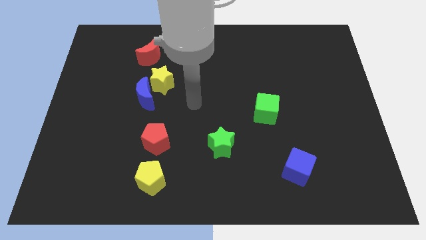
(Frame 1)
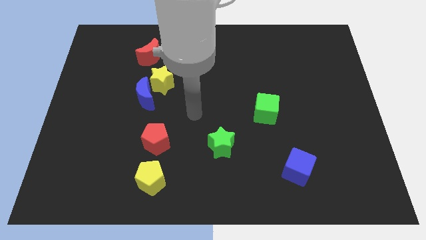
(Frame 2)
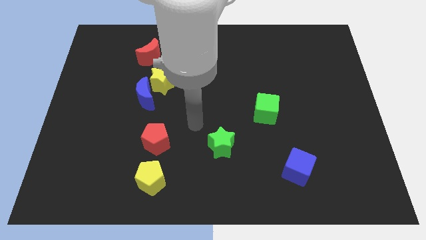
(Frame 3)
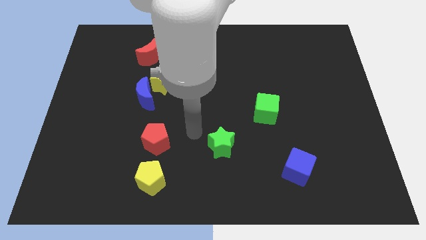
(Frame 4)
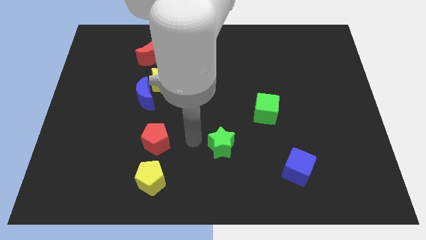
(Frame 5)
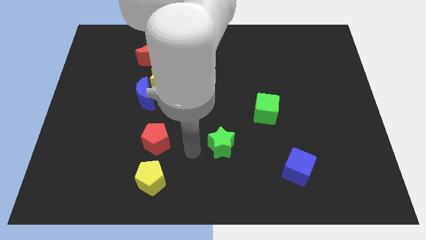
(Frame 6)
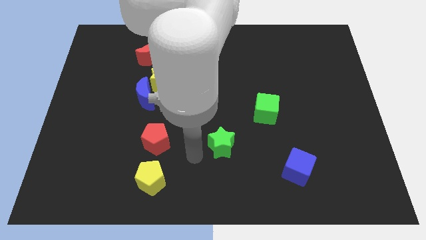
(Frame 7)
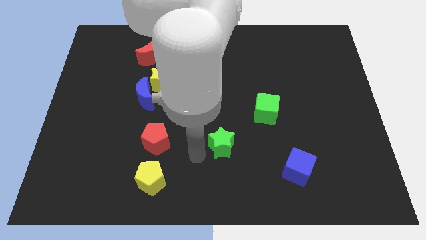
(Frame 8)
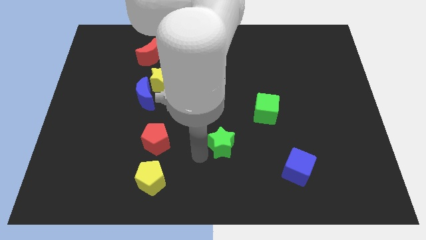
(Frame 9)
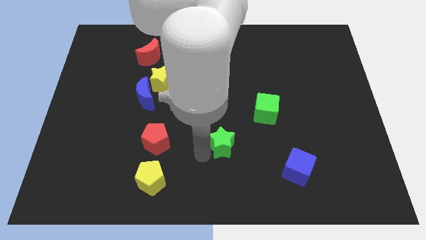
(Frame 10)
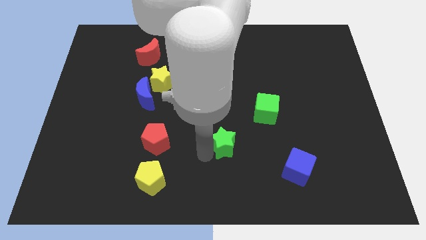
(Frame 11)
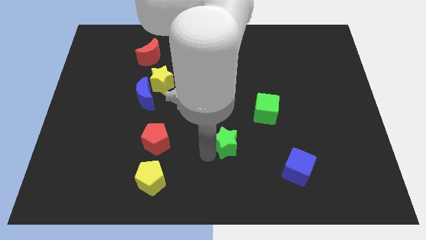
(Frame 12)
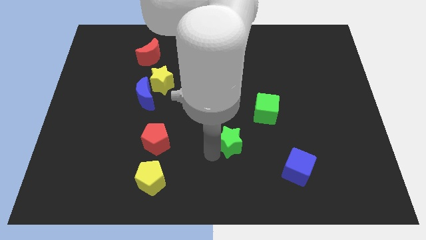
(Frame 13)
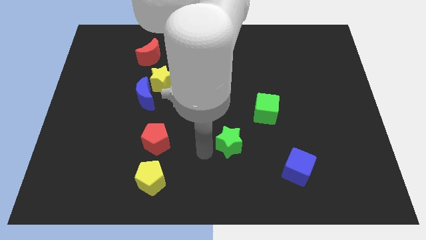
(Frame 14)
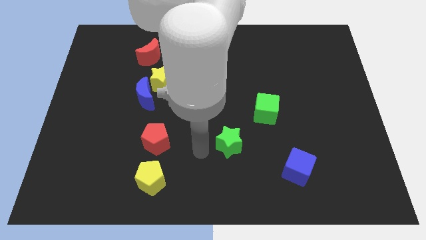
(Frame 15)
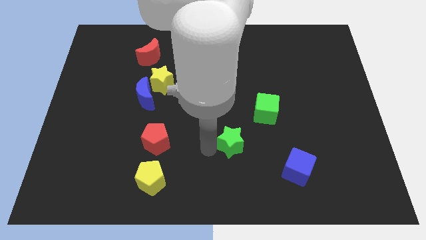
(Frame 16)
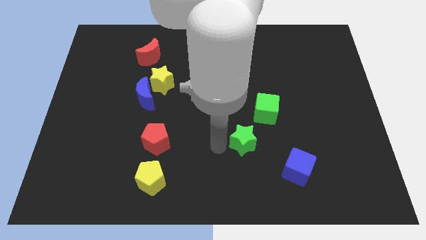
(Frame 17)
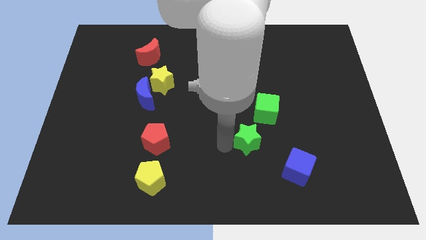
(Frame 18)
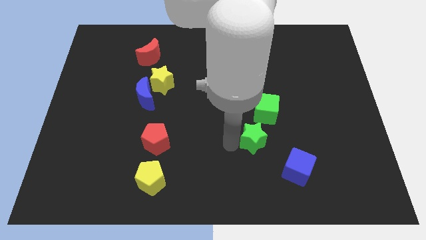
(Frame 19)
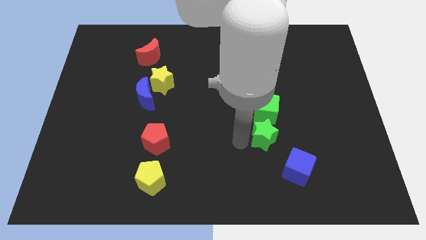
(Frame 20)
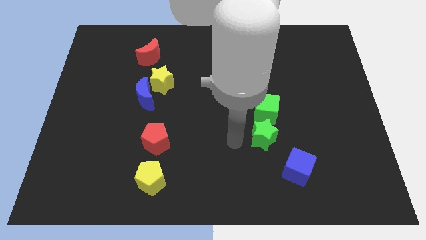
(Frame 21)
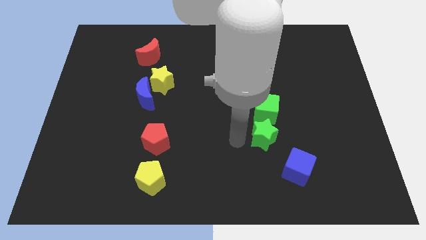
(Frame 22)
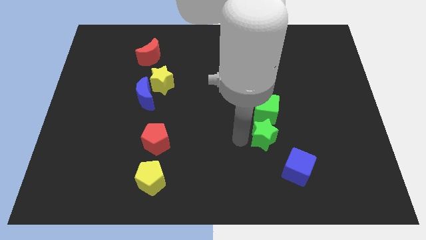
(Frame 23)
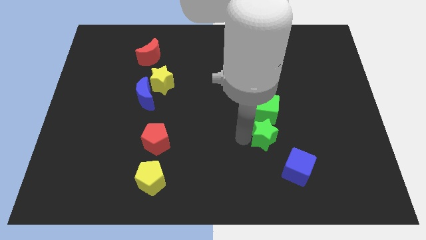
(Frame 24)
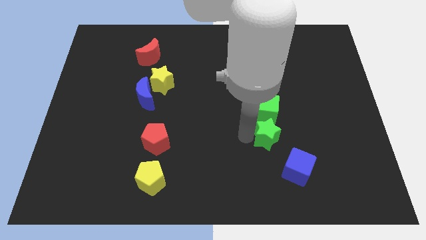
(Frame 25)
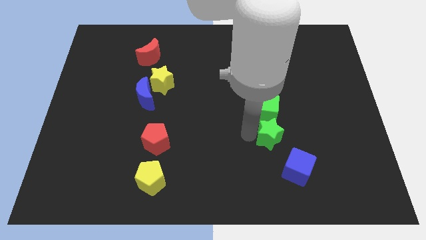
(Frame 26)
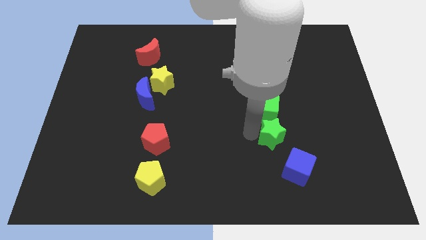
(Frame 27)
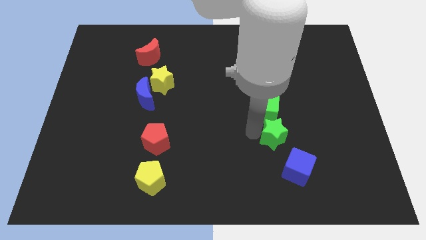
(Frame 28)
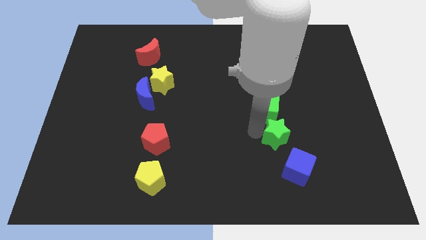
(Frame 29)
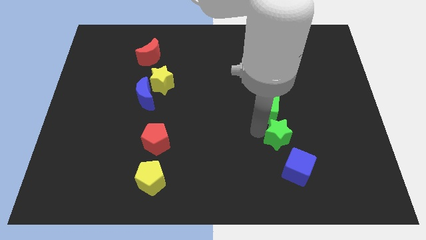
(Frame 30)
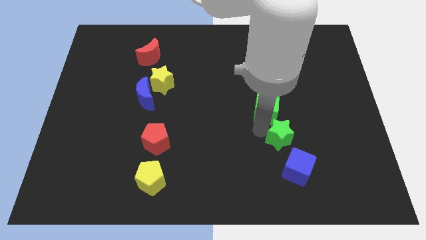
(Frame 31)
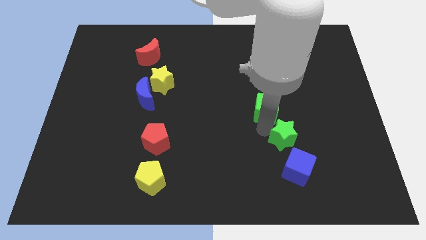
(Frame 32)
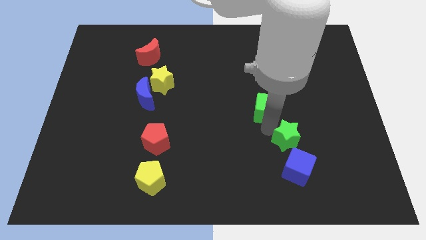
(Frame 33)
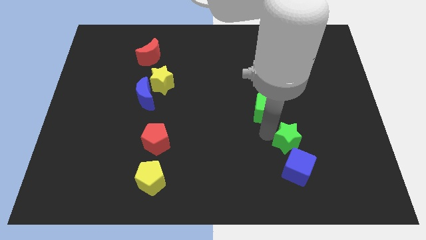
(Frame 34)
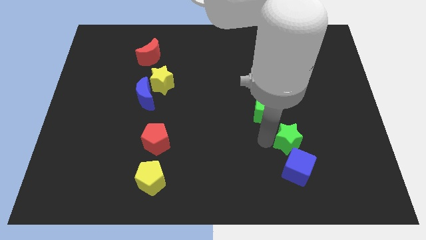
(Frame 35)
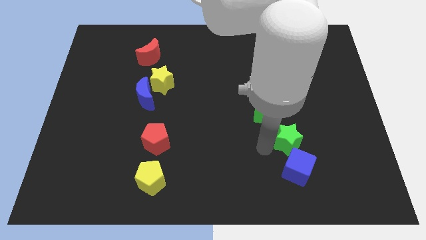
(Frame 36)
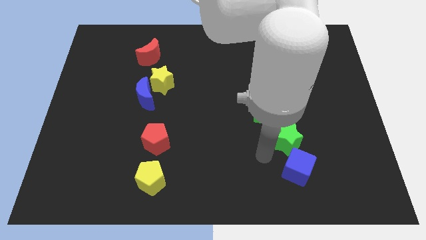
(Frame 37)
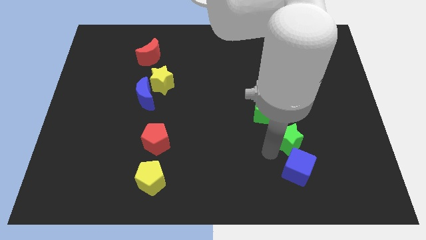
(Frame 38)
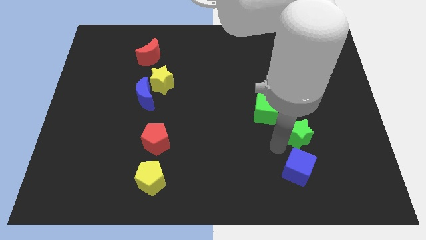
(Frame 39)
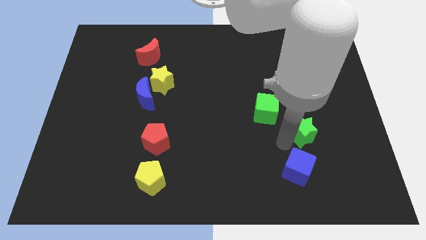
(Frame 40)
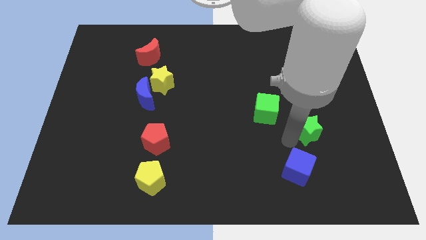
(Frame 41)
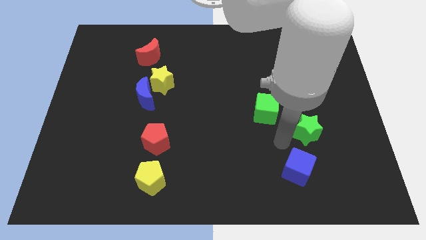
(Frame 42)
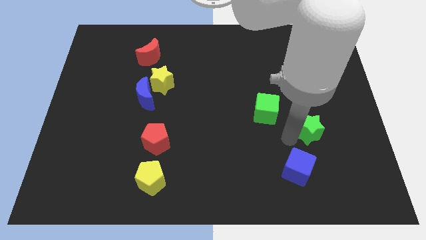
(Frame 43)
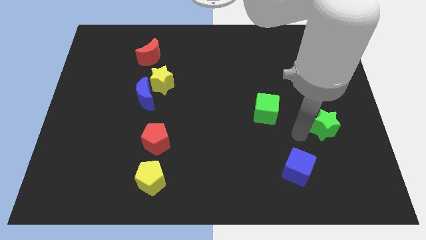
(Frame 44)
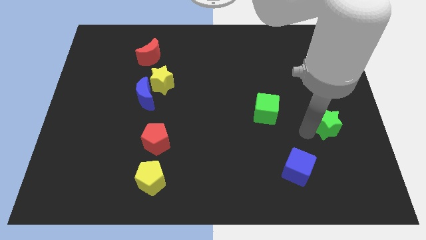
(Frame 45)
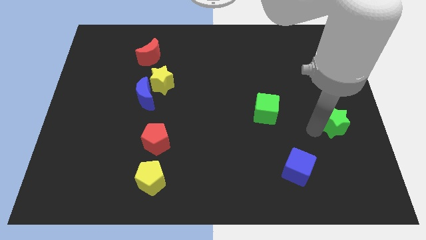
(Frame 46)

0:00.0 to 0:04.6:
move the green star to the center right

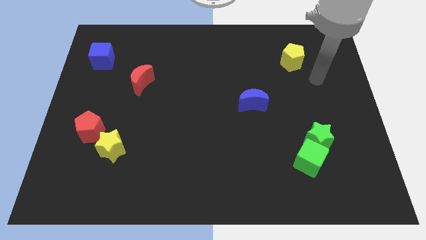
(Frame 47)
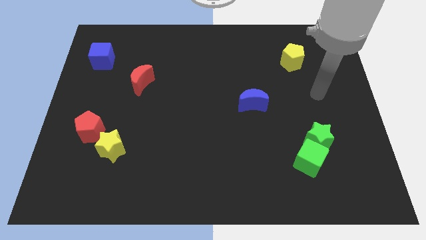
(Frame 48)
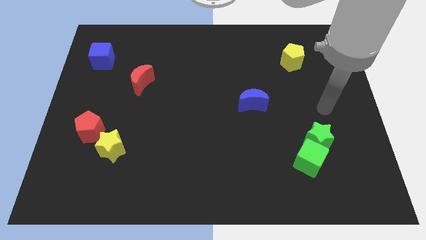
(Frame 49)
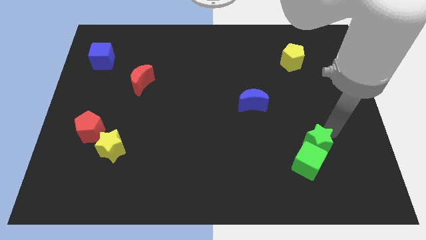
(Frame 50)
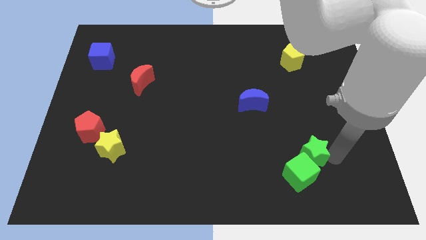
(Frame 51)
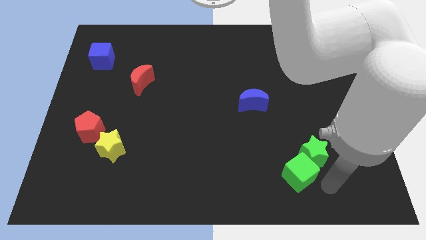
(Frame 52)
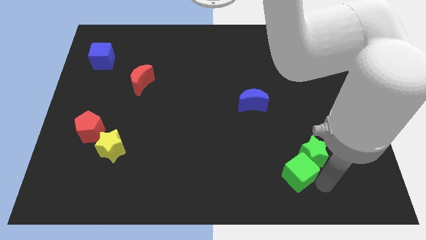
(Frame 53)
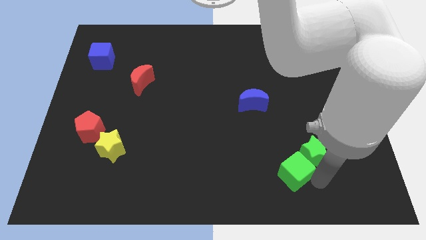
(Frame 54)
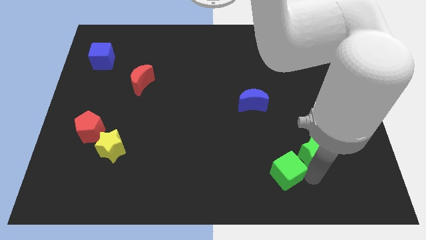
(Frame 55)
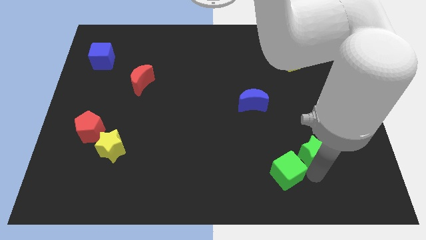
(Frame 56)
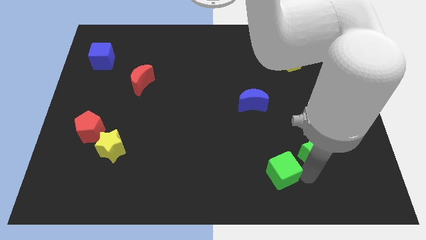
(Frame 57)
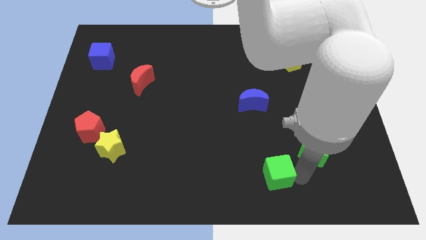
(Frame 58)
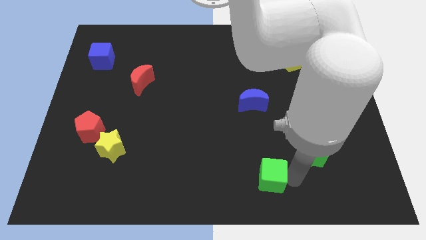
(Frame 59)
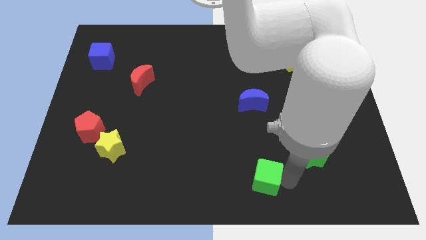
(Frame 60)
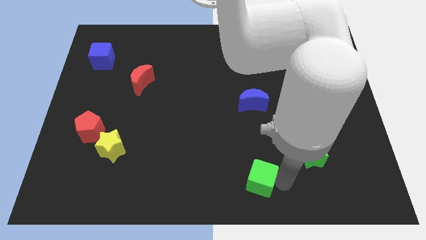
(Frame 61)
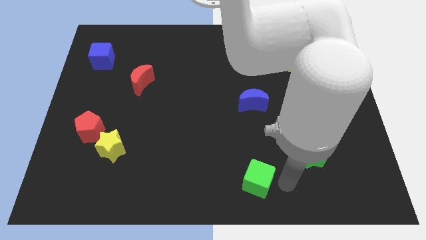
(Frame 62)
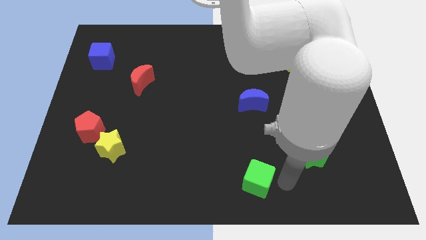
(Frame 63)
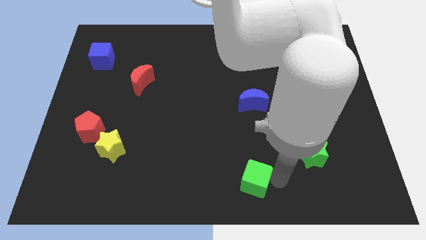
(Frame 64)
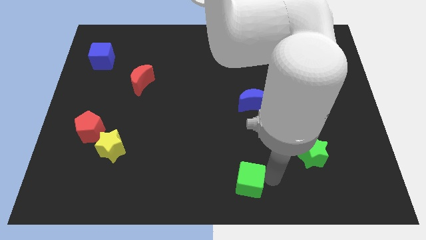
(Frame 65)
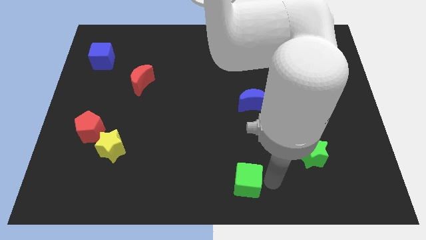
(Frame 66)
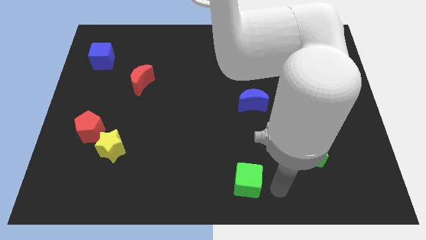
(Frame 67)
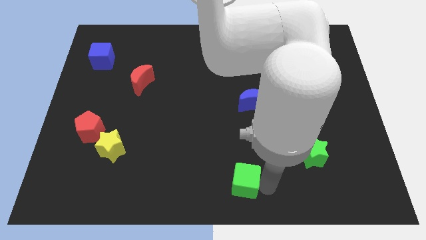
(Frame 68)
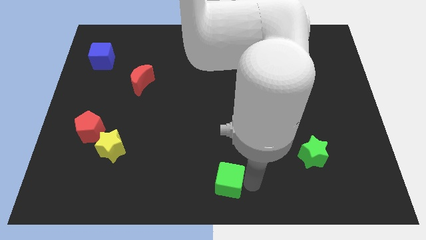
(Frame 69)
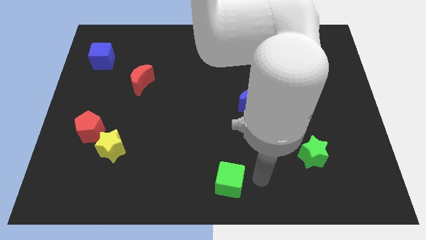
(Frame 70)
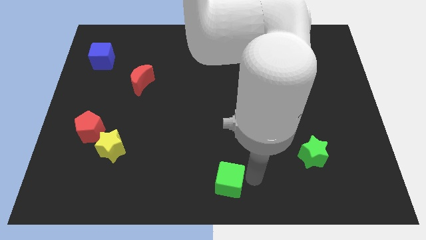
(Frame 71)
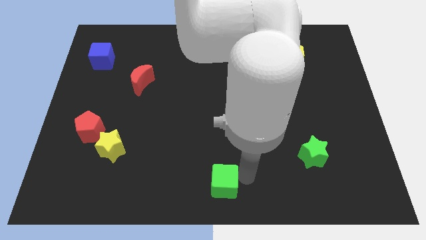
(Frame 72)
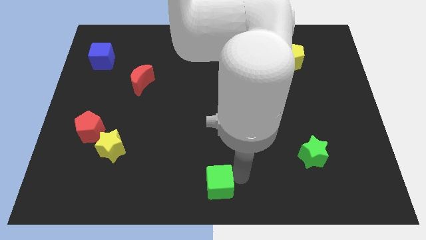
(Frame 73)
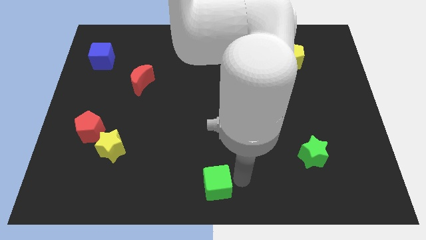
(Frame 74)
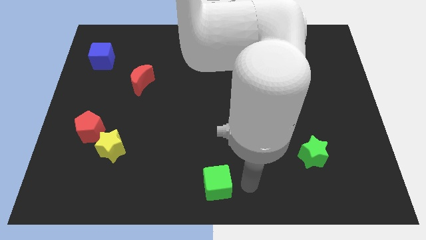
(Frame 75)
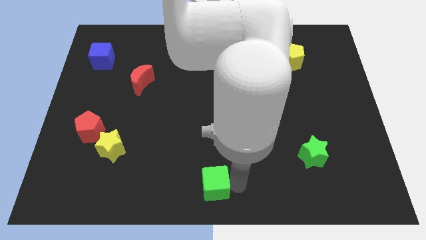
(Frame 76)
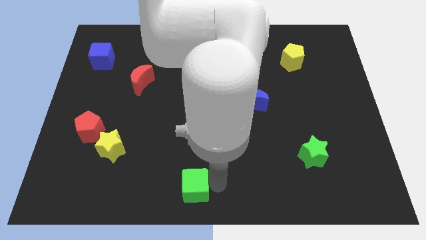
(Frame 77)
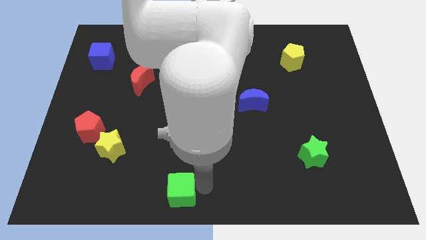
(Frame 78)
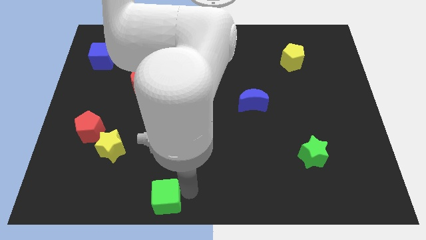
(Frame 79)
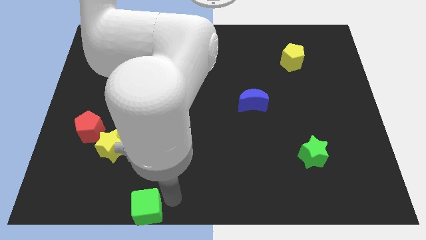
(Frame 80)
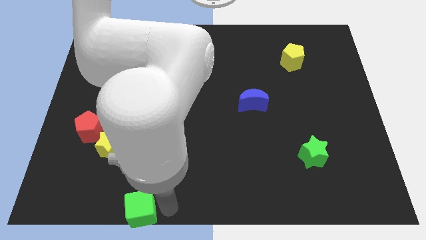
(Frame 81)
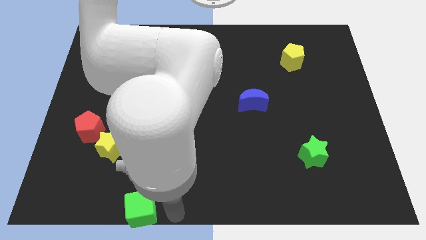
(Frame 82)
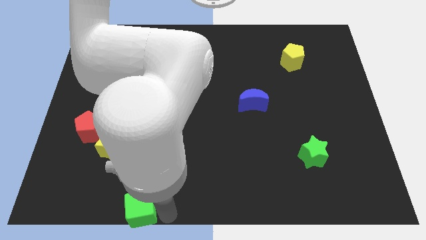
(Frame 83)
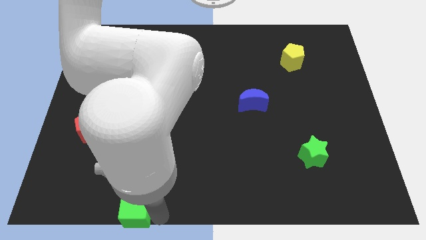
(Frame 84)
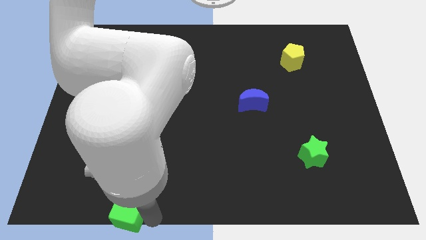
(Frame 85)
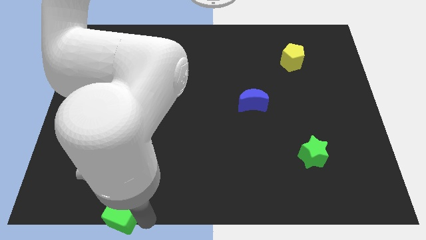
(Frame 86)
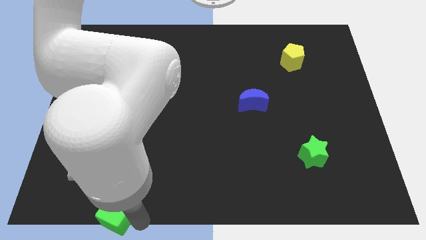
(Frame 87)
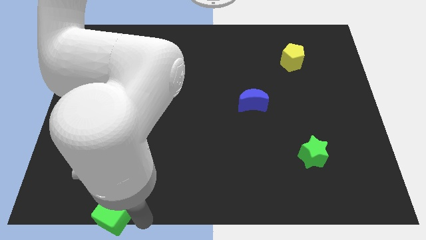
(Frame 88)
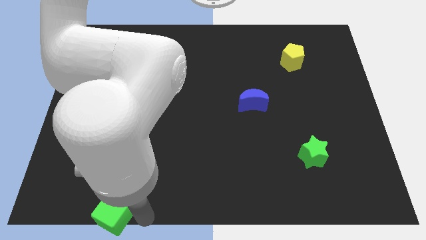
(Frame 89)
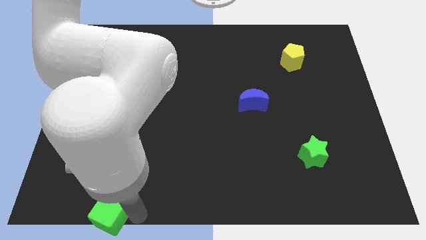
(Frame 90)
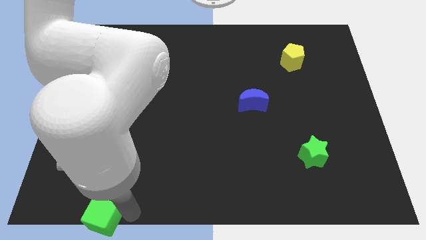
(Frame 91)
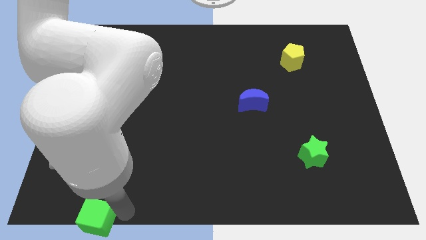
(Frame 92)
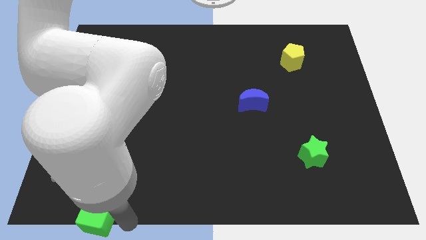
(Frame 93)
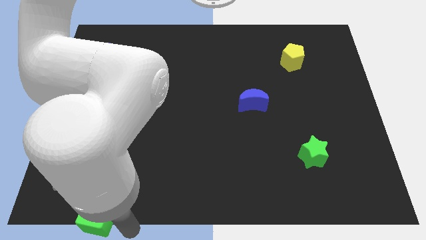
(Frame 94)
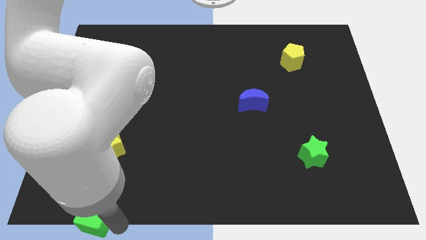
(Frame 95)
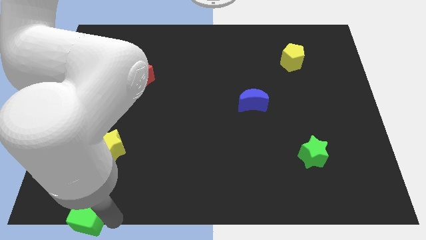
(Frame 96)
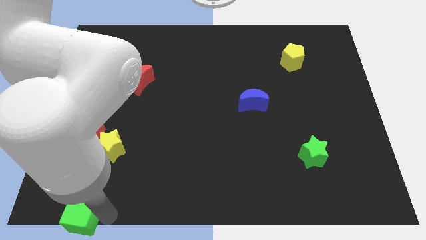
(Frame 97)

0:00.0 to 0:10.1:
push the green cube to the bottom left corner
